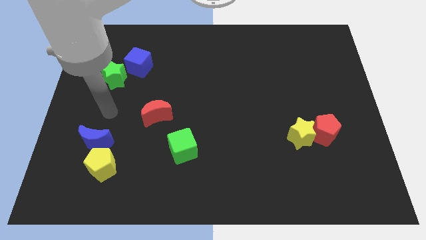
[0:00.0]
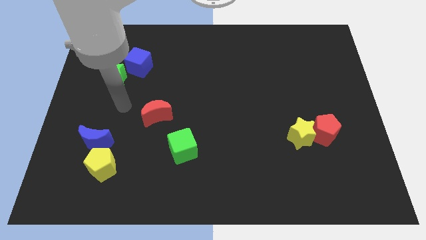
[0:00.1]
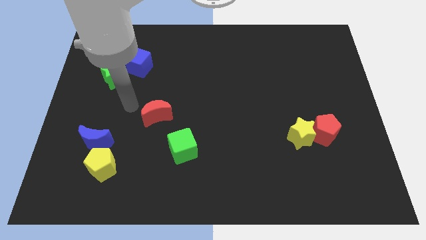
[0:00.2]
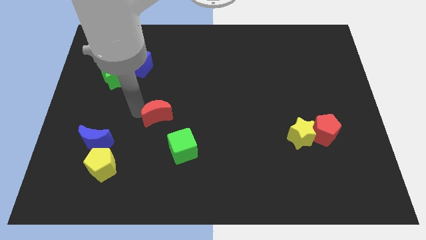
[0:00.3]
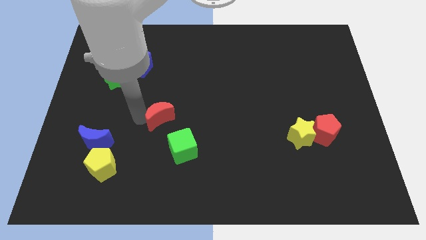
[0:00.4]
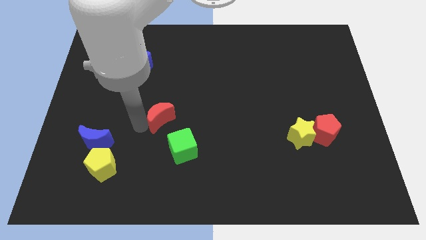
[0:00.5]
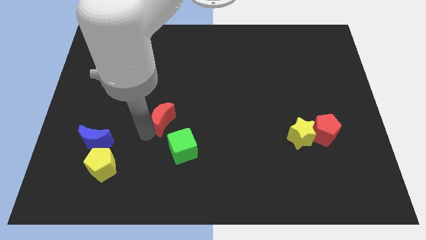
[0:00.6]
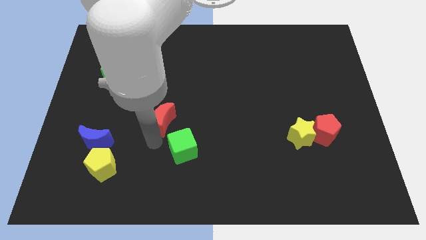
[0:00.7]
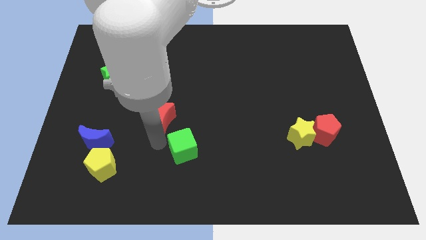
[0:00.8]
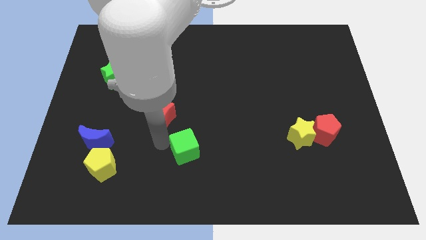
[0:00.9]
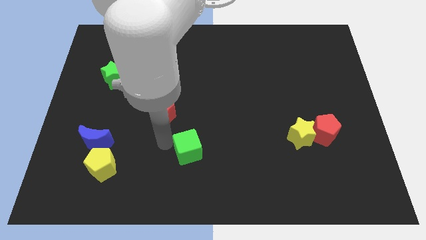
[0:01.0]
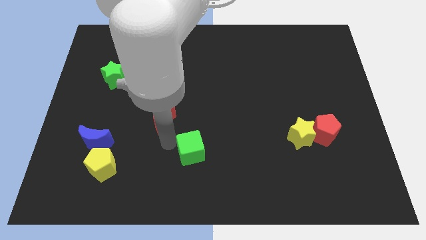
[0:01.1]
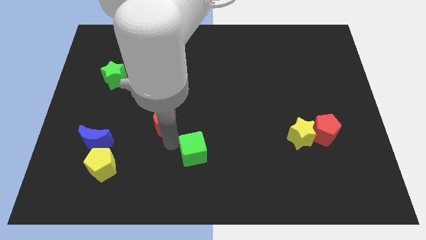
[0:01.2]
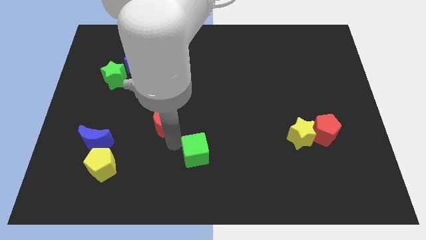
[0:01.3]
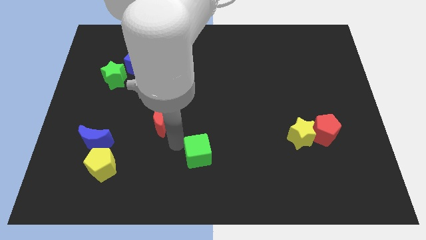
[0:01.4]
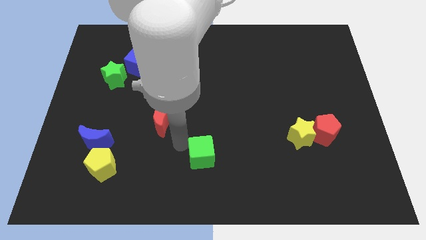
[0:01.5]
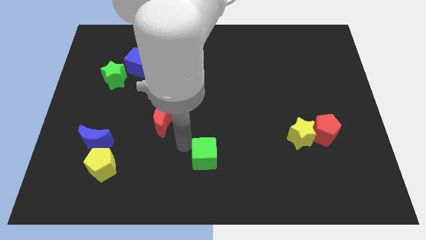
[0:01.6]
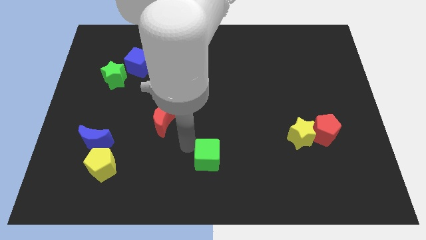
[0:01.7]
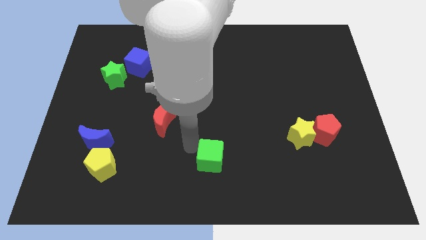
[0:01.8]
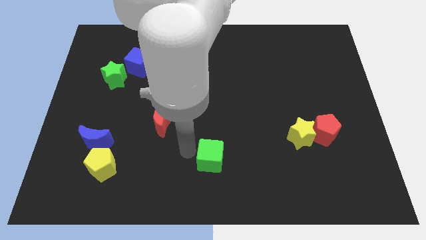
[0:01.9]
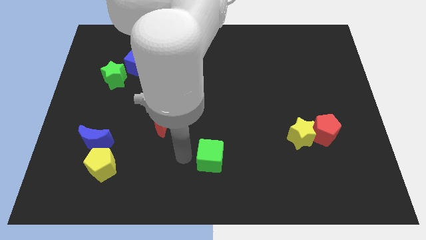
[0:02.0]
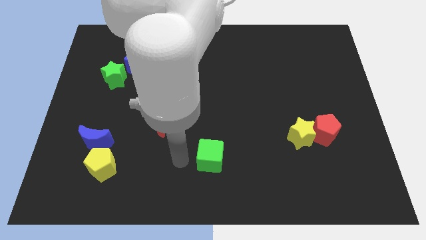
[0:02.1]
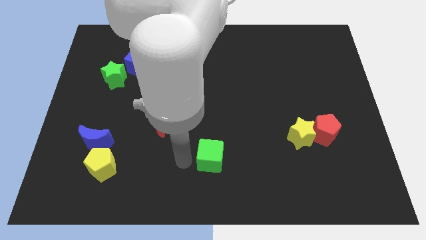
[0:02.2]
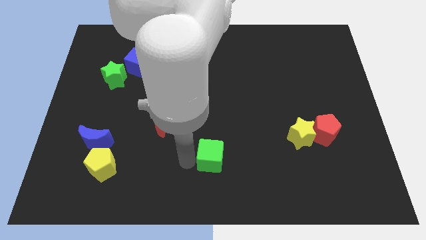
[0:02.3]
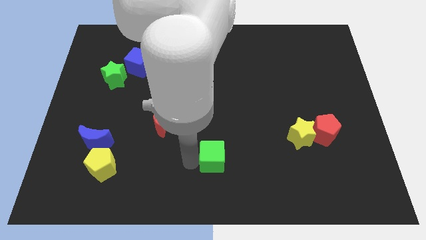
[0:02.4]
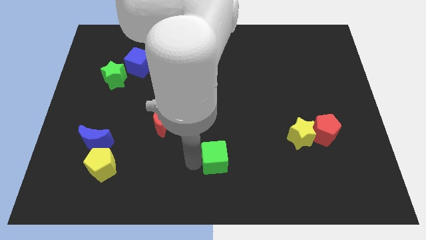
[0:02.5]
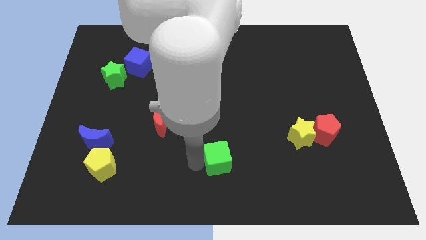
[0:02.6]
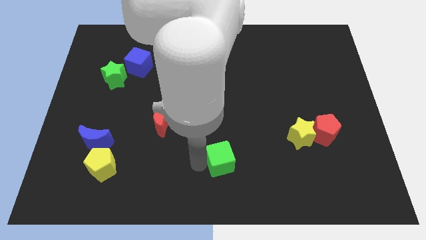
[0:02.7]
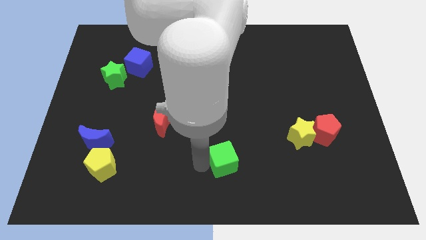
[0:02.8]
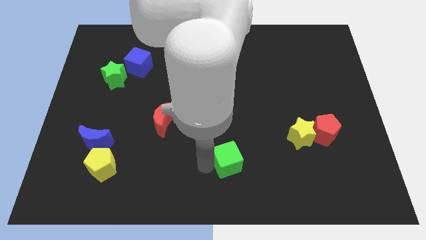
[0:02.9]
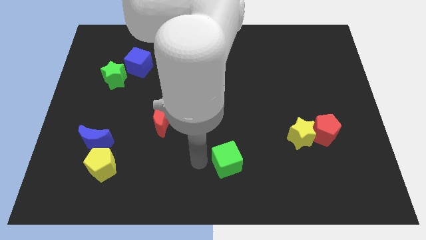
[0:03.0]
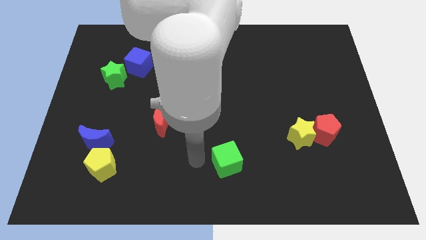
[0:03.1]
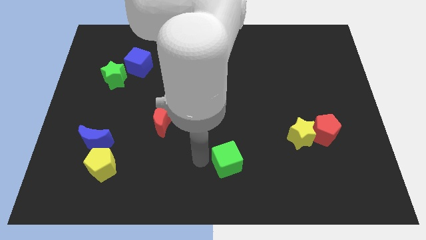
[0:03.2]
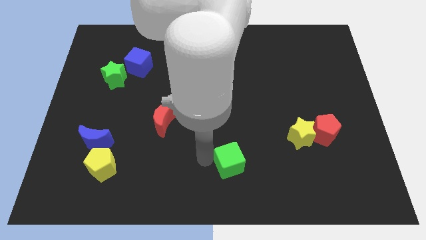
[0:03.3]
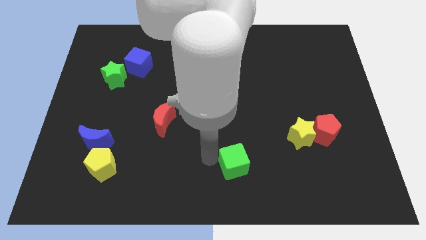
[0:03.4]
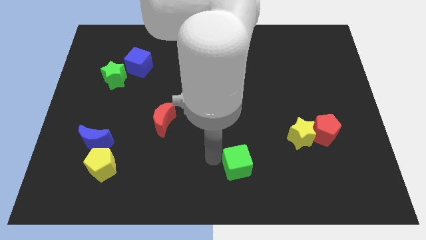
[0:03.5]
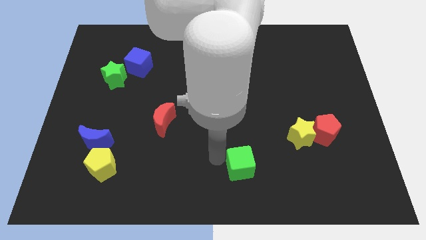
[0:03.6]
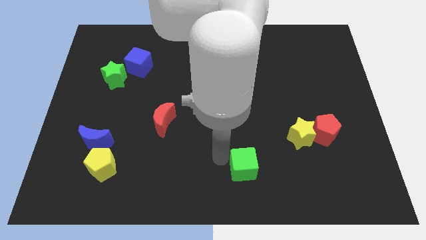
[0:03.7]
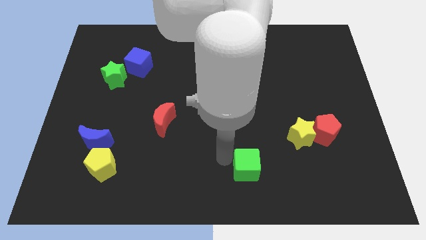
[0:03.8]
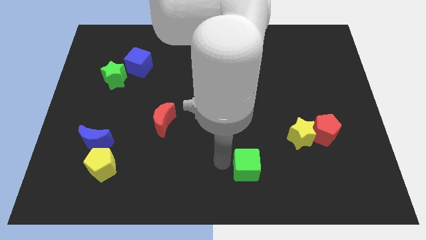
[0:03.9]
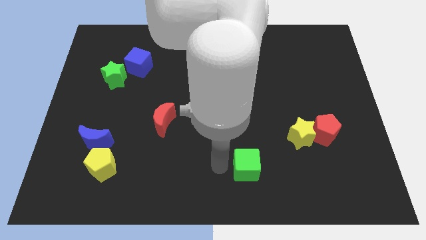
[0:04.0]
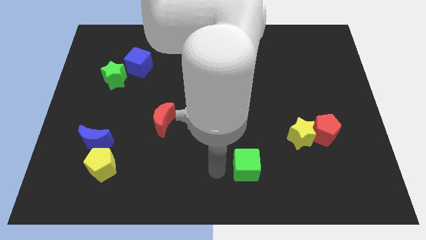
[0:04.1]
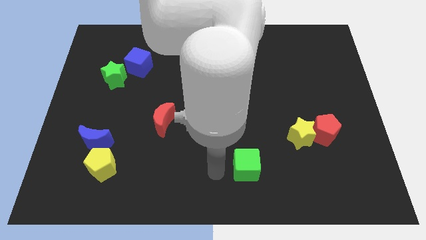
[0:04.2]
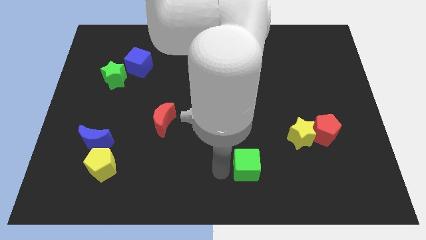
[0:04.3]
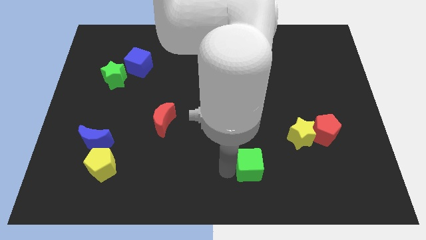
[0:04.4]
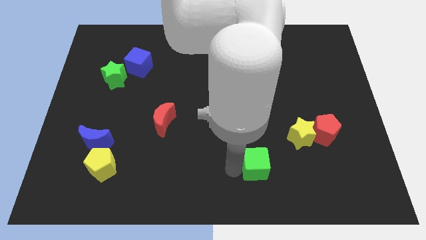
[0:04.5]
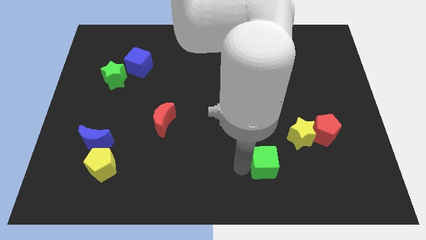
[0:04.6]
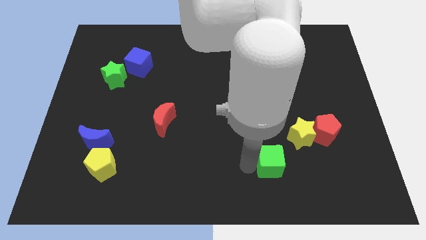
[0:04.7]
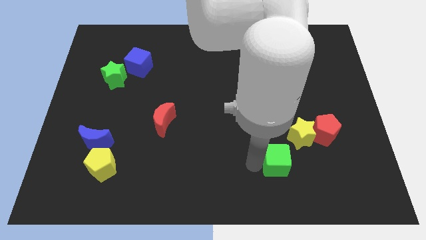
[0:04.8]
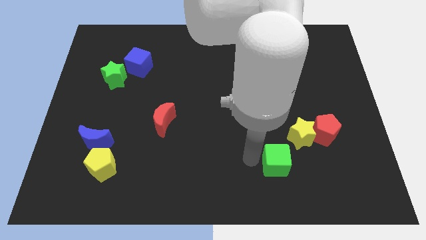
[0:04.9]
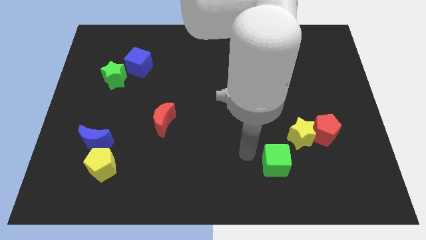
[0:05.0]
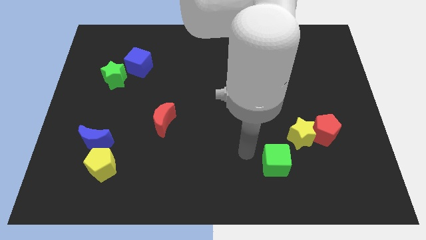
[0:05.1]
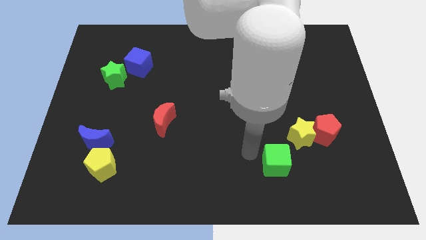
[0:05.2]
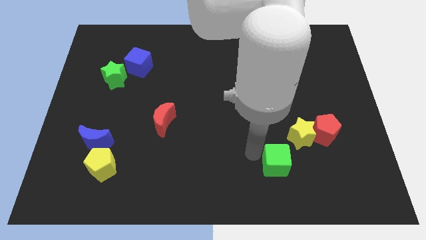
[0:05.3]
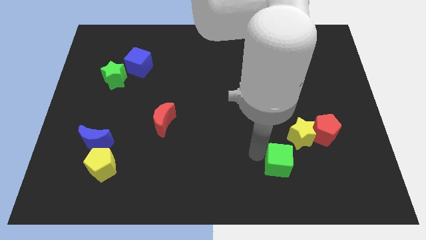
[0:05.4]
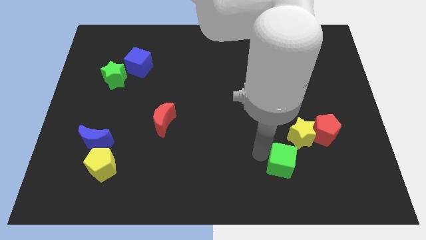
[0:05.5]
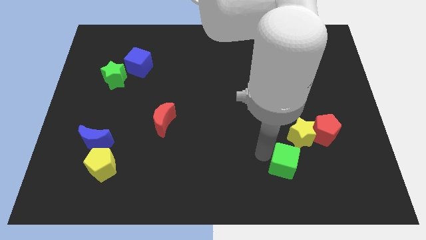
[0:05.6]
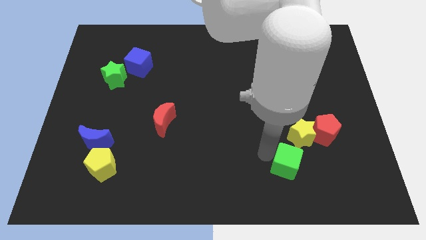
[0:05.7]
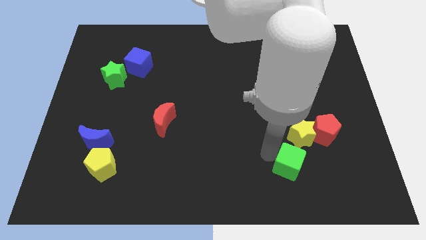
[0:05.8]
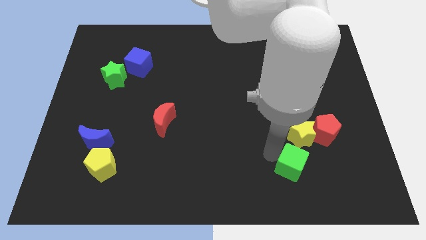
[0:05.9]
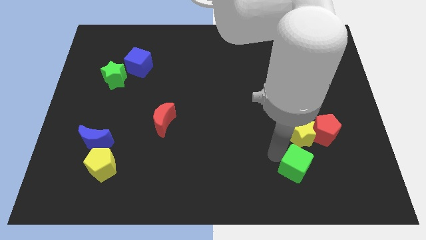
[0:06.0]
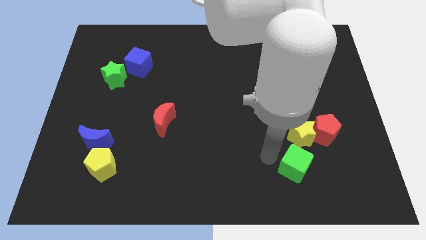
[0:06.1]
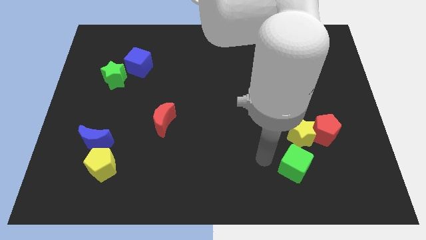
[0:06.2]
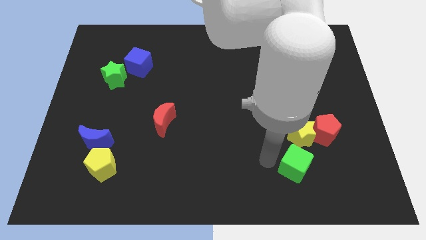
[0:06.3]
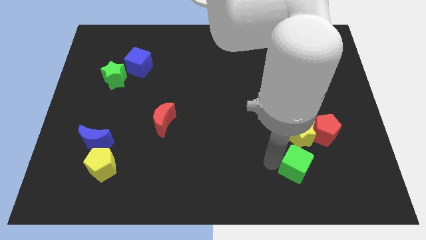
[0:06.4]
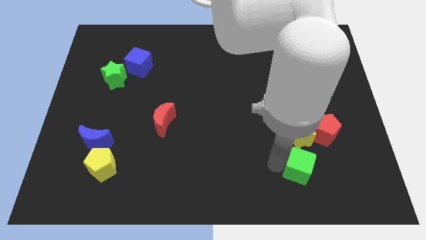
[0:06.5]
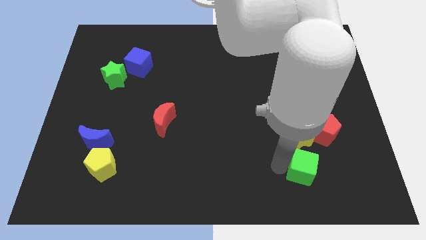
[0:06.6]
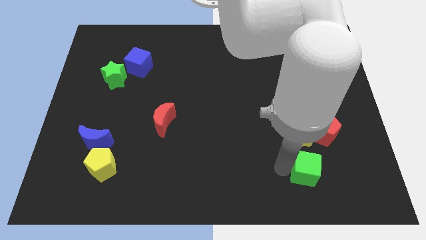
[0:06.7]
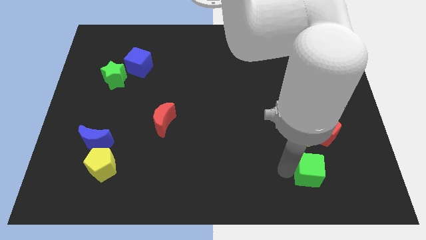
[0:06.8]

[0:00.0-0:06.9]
put the green cube below the red pentagon
